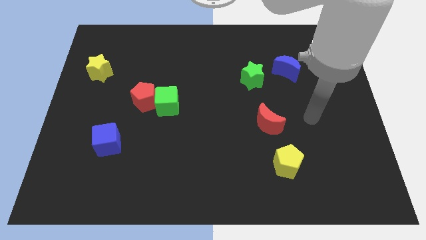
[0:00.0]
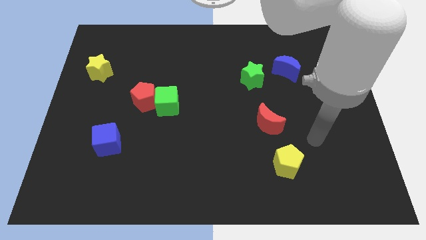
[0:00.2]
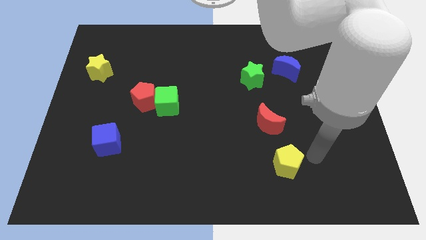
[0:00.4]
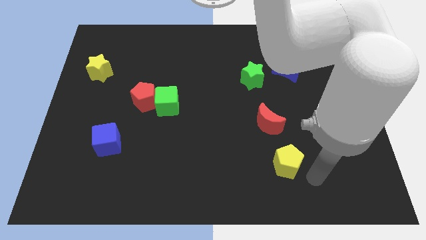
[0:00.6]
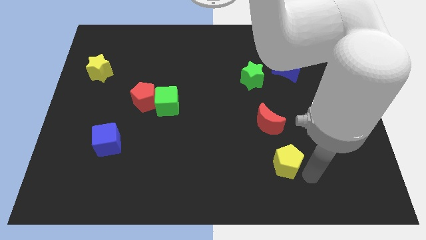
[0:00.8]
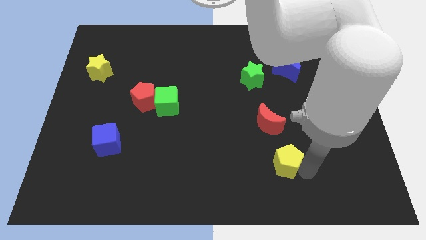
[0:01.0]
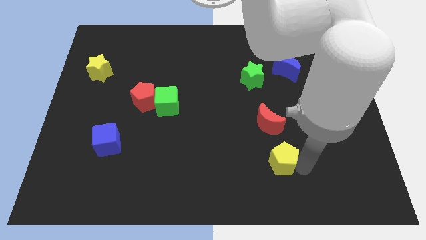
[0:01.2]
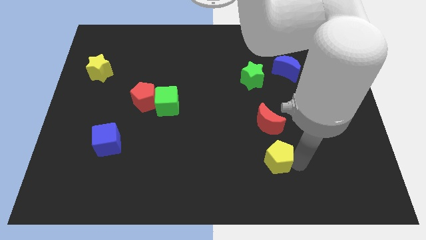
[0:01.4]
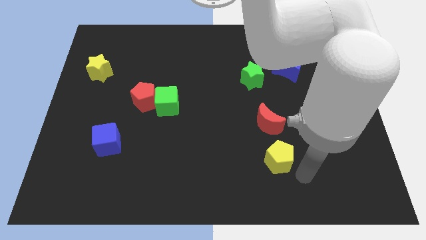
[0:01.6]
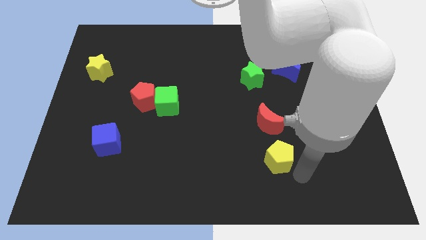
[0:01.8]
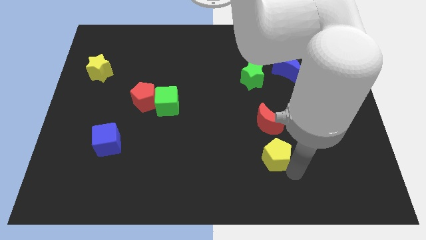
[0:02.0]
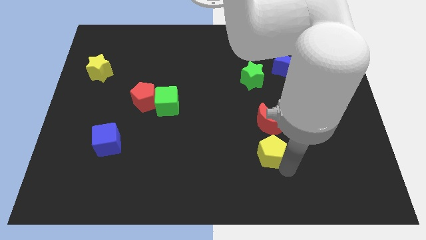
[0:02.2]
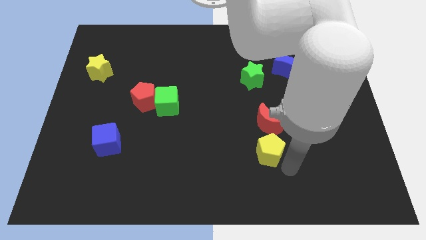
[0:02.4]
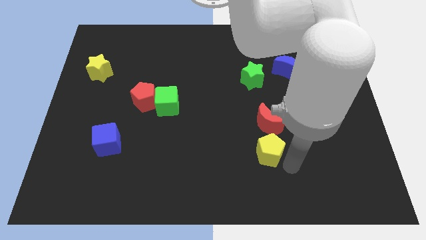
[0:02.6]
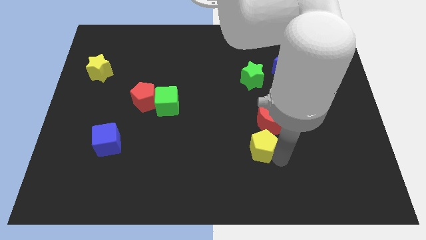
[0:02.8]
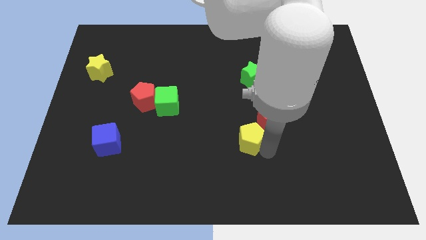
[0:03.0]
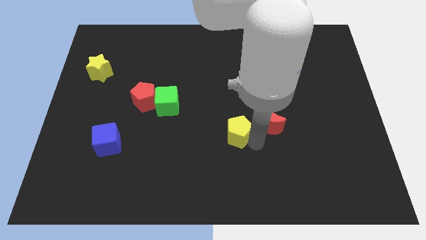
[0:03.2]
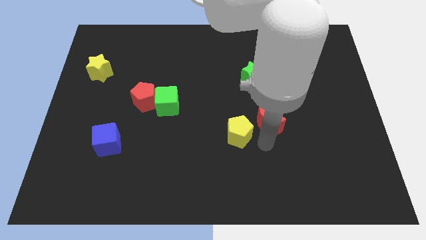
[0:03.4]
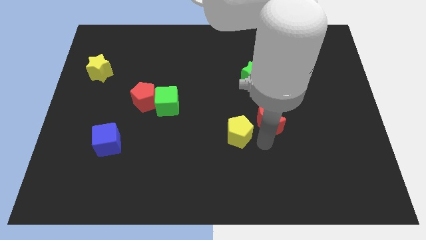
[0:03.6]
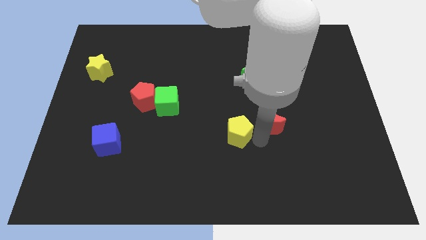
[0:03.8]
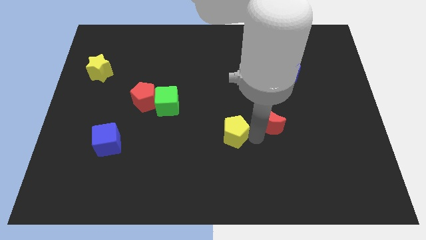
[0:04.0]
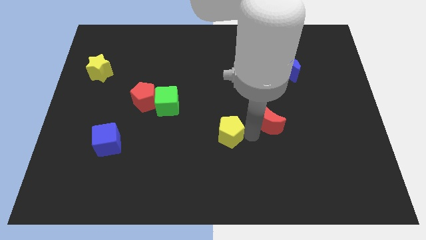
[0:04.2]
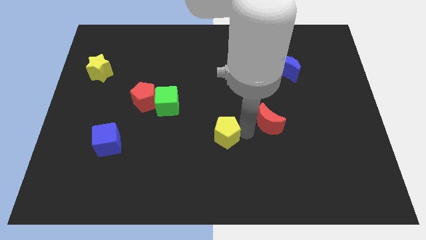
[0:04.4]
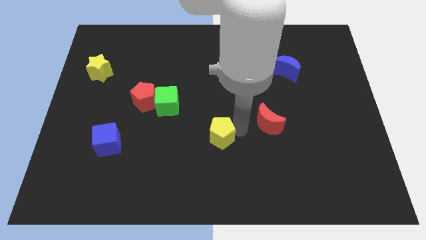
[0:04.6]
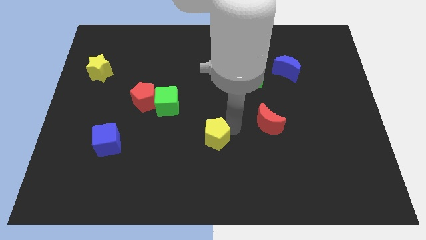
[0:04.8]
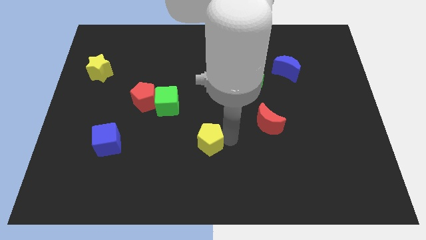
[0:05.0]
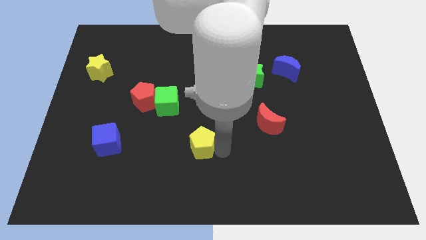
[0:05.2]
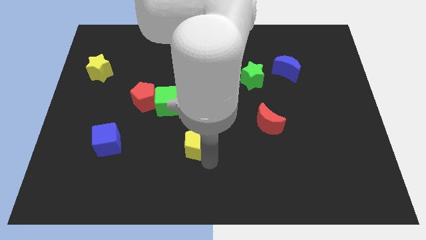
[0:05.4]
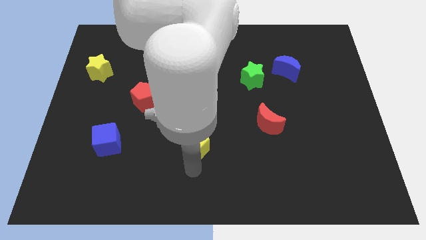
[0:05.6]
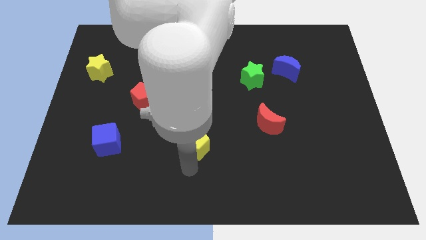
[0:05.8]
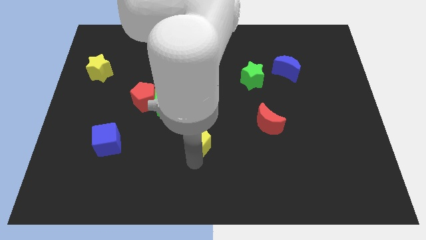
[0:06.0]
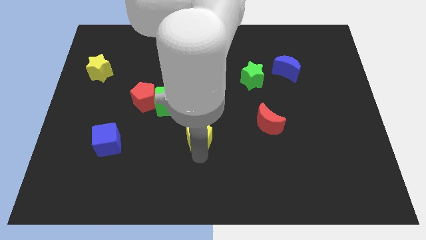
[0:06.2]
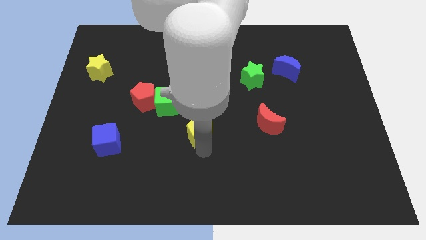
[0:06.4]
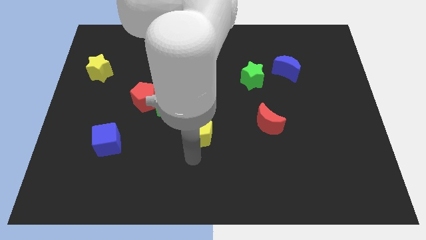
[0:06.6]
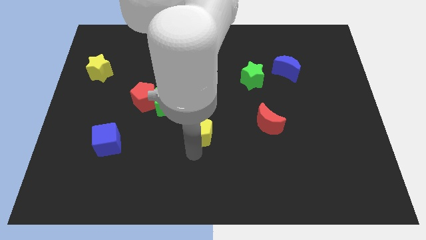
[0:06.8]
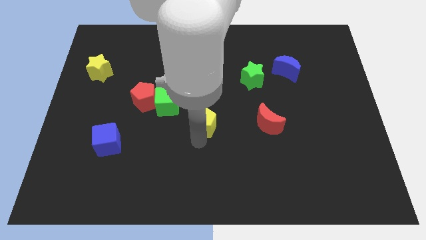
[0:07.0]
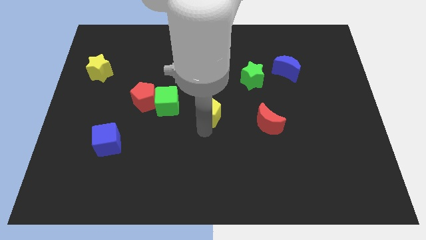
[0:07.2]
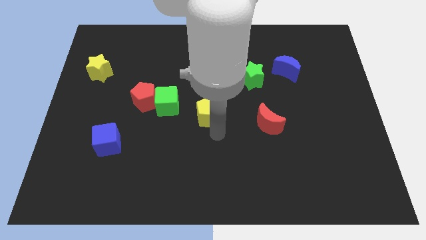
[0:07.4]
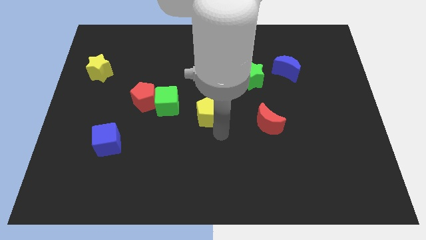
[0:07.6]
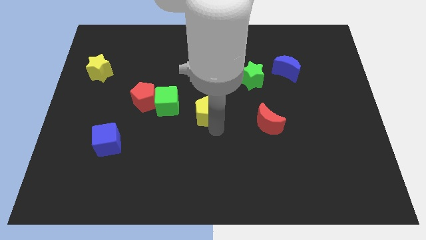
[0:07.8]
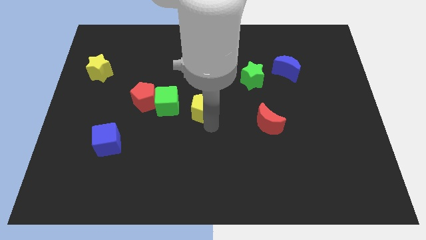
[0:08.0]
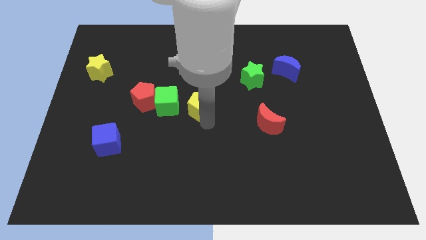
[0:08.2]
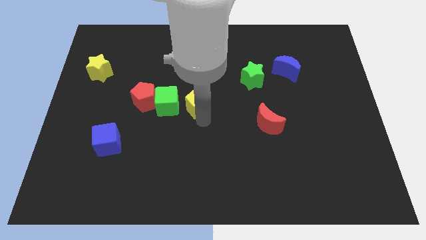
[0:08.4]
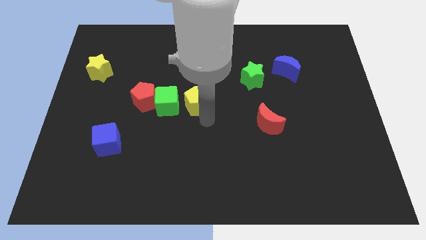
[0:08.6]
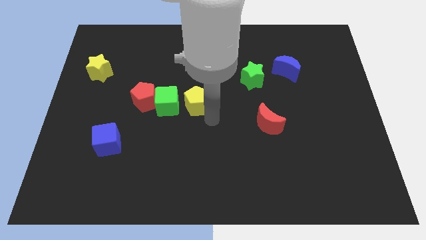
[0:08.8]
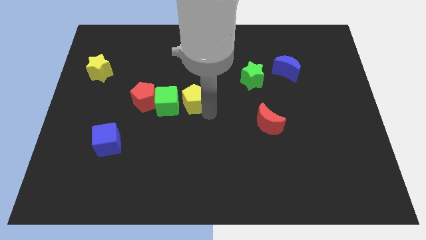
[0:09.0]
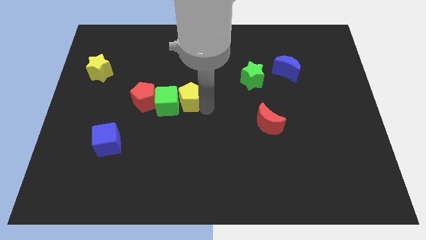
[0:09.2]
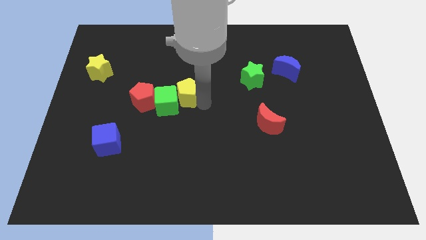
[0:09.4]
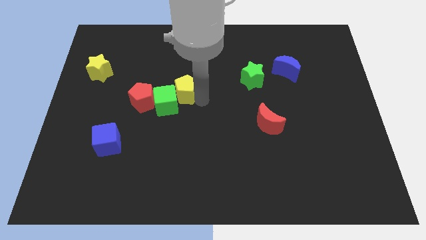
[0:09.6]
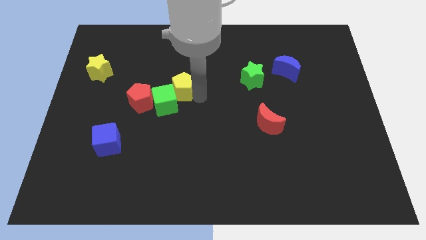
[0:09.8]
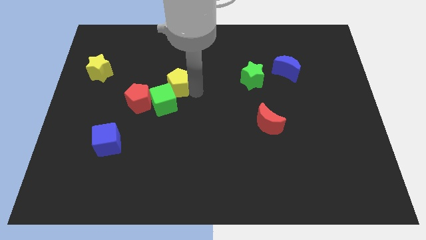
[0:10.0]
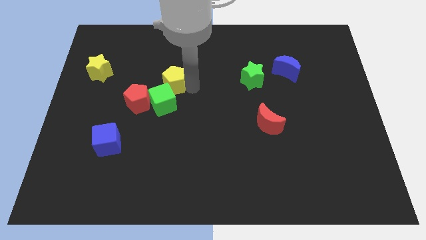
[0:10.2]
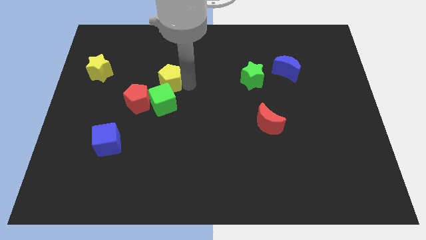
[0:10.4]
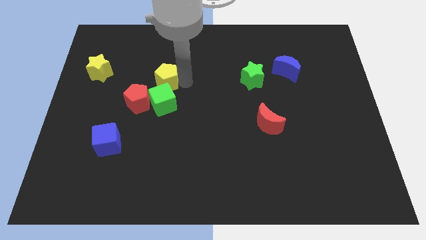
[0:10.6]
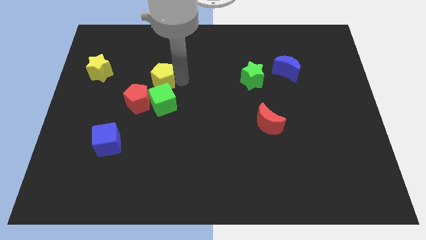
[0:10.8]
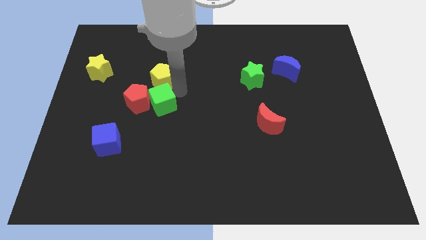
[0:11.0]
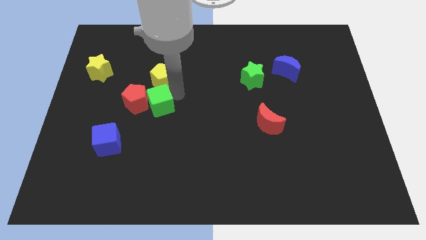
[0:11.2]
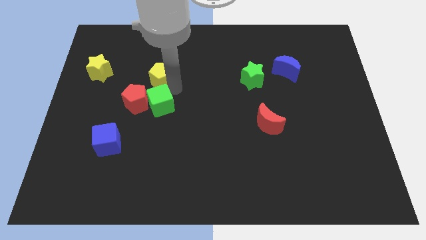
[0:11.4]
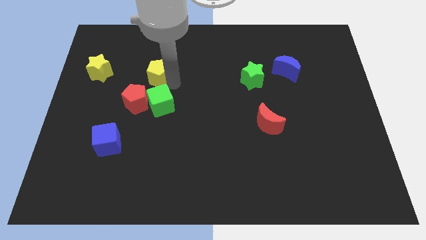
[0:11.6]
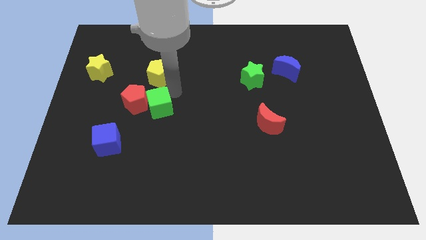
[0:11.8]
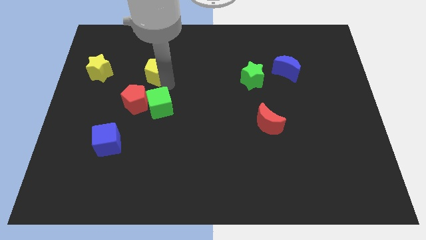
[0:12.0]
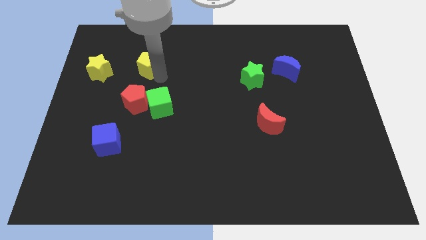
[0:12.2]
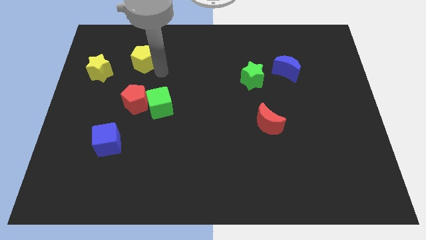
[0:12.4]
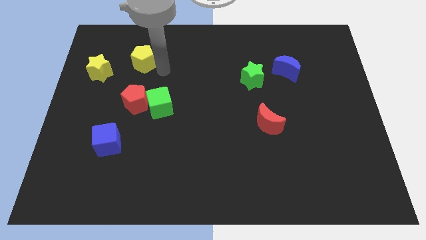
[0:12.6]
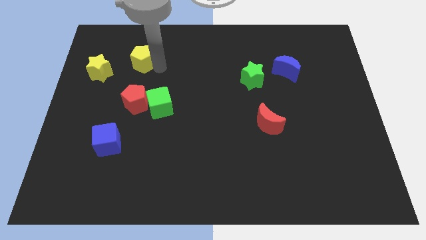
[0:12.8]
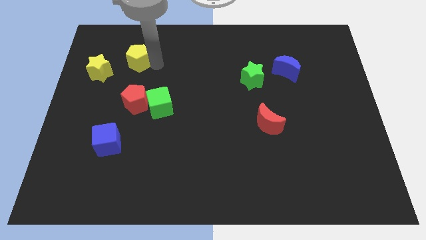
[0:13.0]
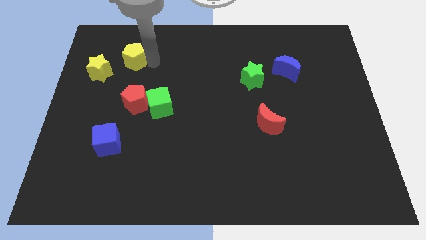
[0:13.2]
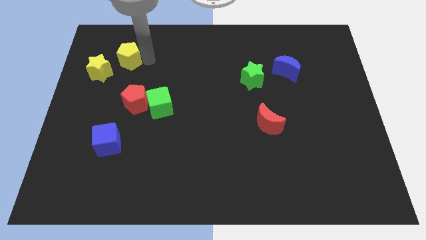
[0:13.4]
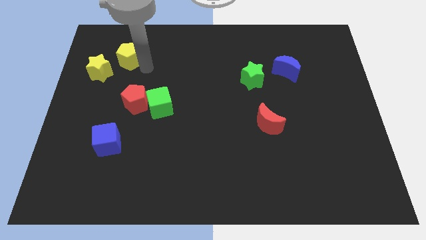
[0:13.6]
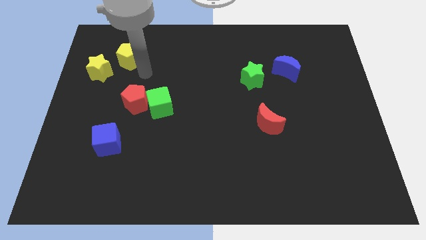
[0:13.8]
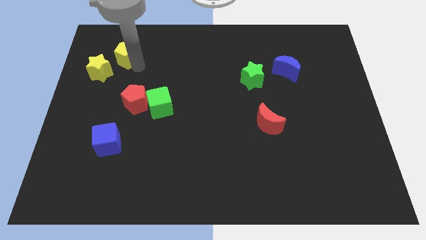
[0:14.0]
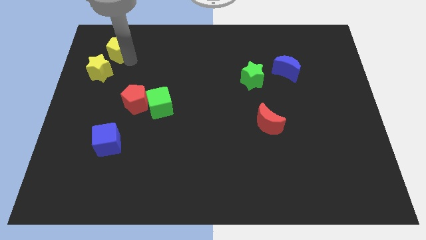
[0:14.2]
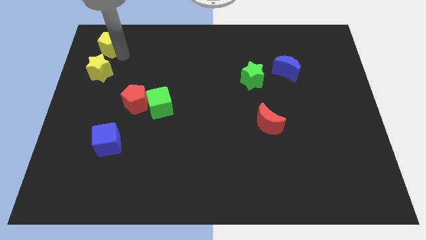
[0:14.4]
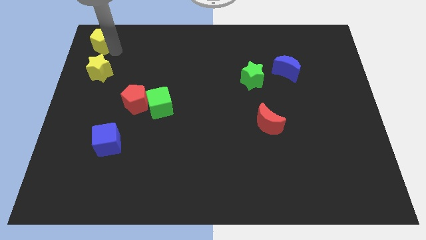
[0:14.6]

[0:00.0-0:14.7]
push the yellow pentagon to the upper left corner
